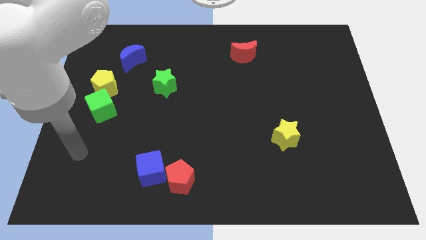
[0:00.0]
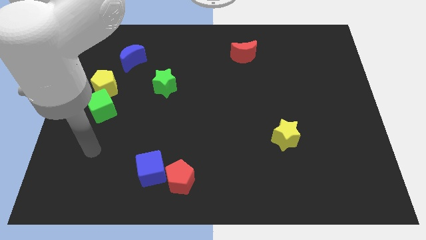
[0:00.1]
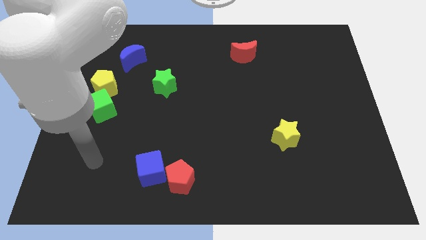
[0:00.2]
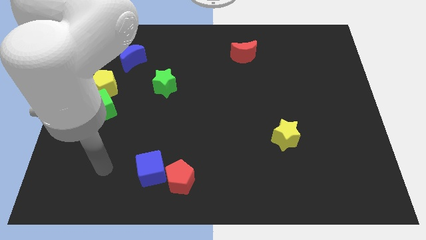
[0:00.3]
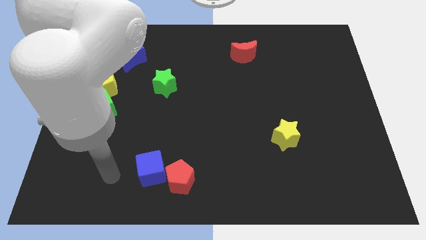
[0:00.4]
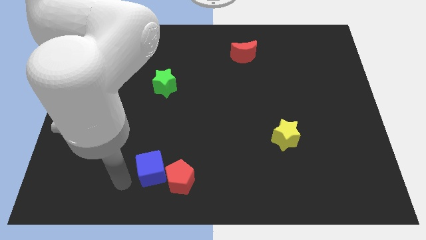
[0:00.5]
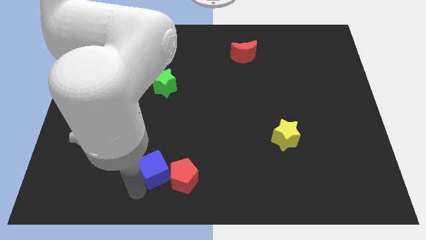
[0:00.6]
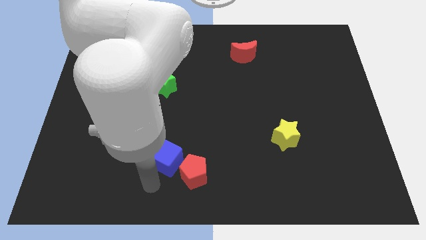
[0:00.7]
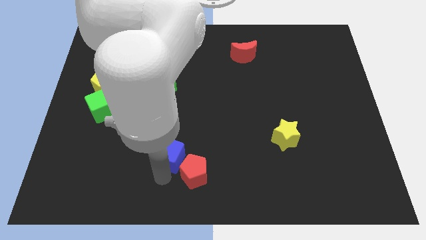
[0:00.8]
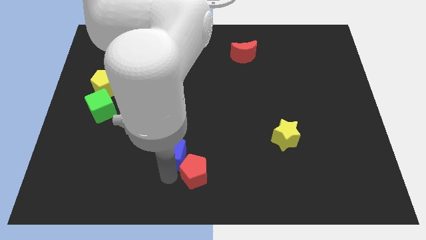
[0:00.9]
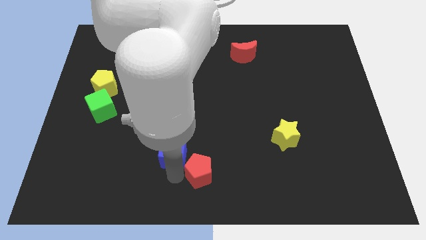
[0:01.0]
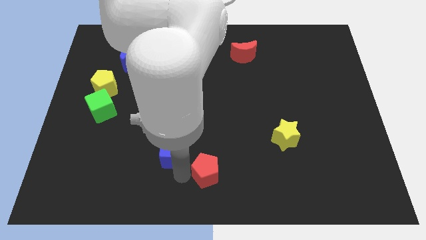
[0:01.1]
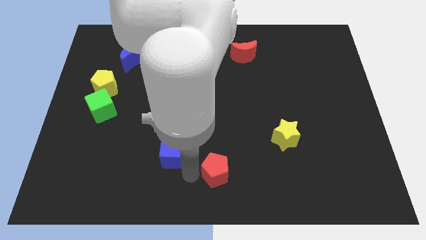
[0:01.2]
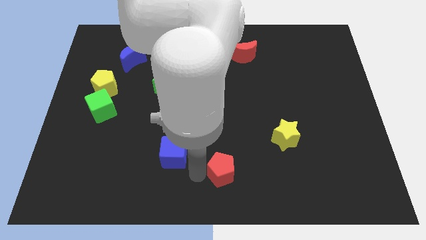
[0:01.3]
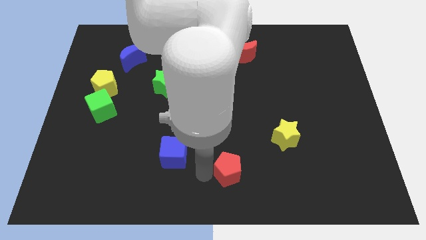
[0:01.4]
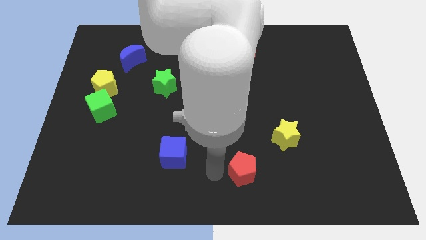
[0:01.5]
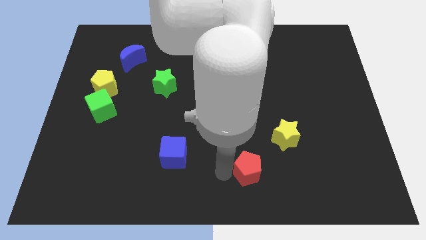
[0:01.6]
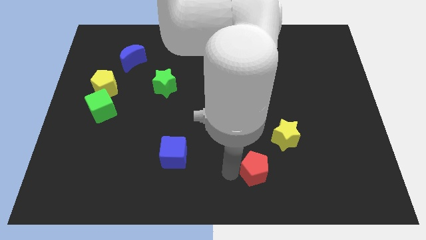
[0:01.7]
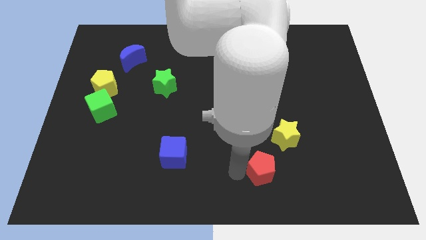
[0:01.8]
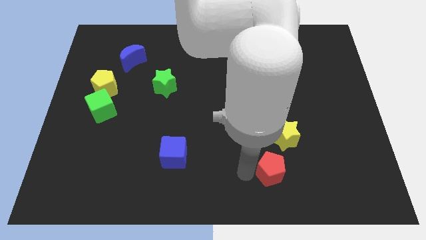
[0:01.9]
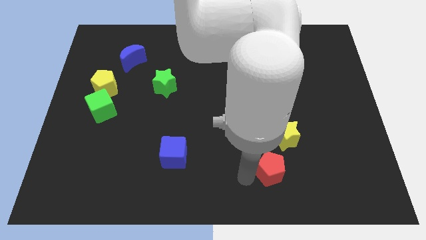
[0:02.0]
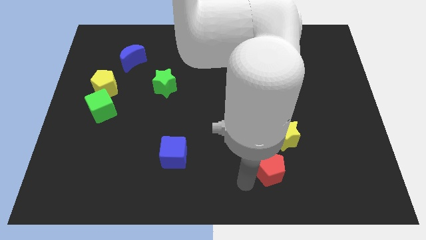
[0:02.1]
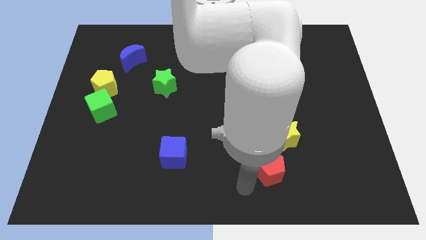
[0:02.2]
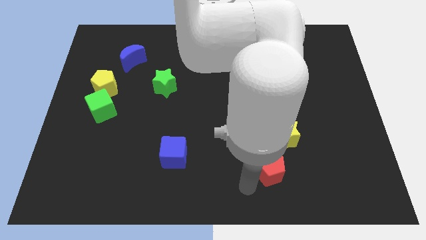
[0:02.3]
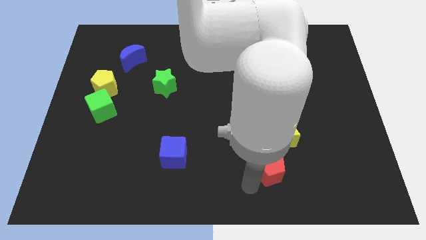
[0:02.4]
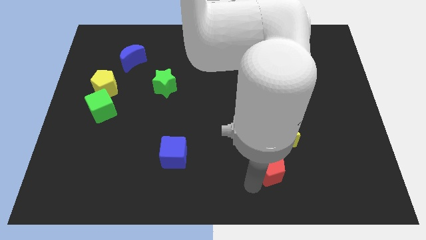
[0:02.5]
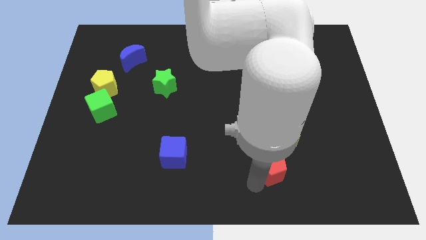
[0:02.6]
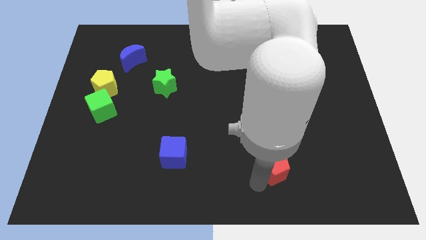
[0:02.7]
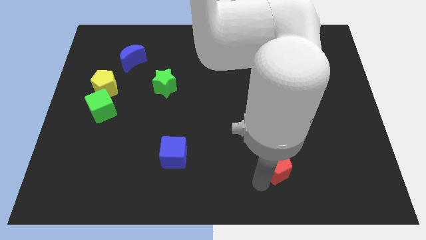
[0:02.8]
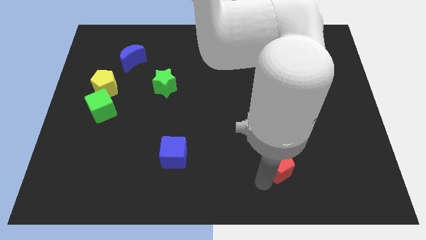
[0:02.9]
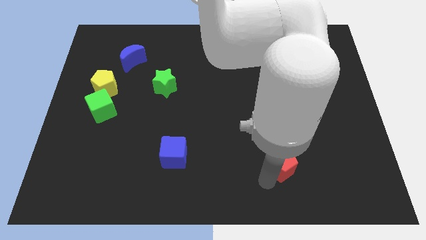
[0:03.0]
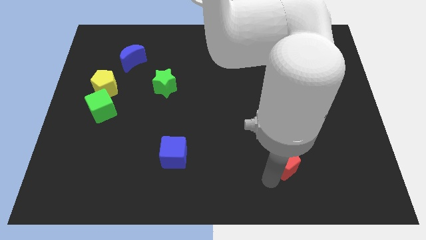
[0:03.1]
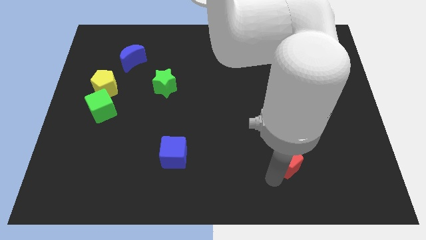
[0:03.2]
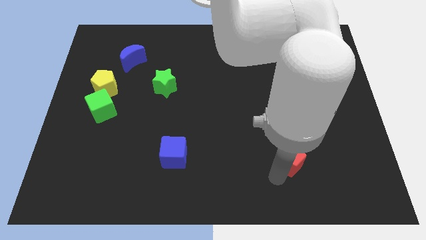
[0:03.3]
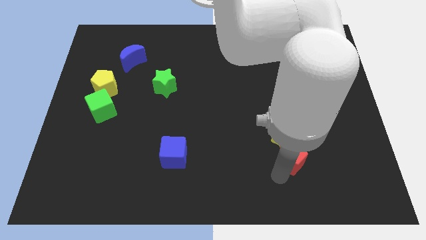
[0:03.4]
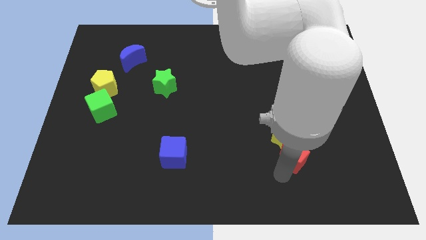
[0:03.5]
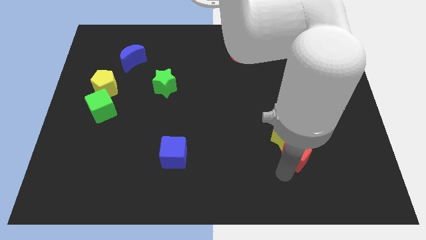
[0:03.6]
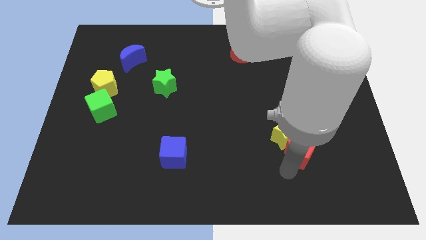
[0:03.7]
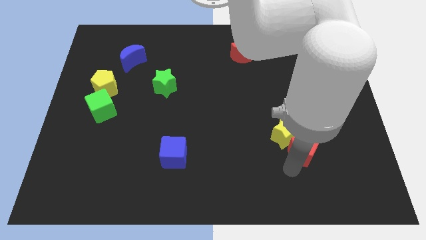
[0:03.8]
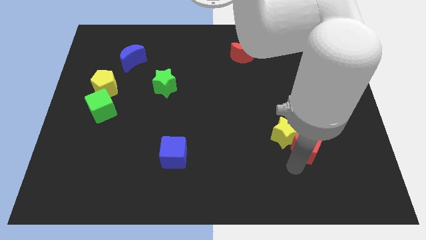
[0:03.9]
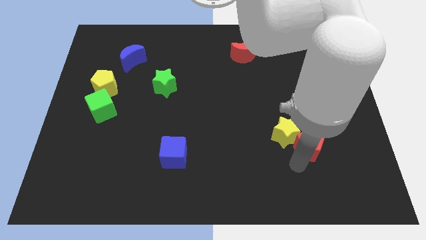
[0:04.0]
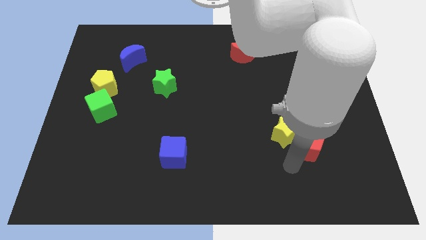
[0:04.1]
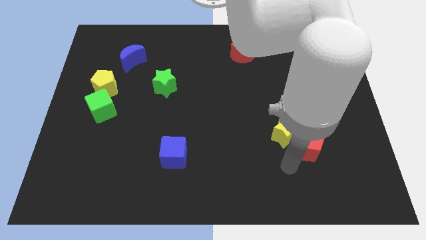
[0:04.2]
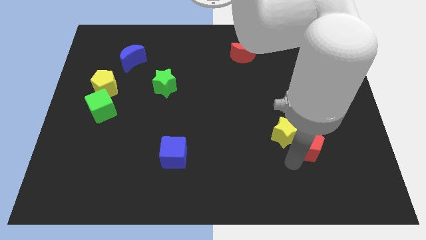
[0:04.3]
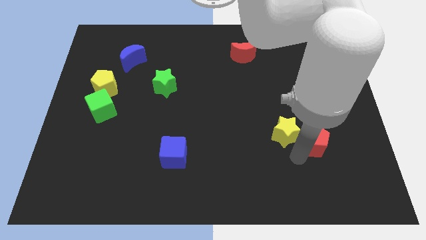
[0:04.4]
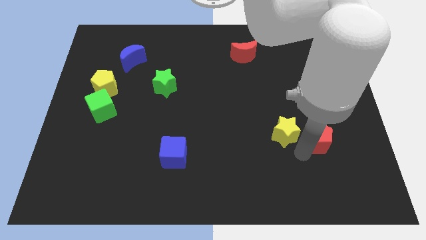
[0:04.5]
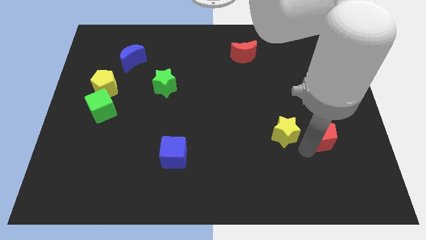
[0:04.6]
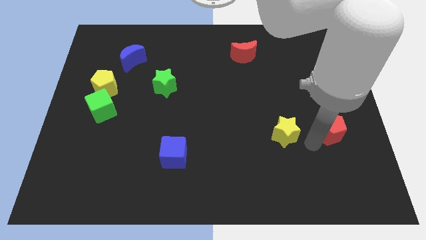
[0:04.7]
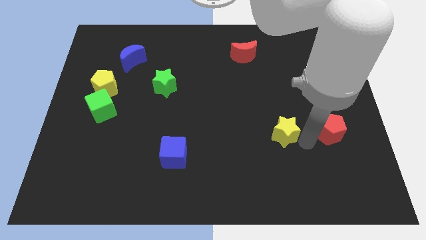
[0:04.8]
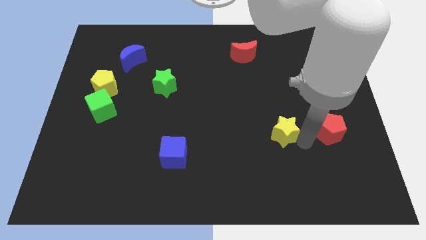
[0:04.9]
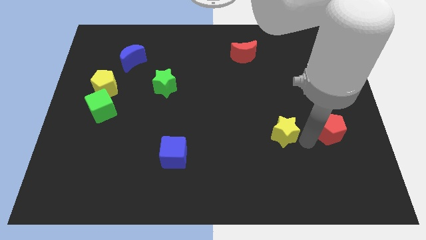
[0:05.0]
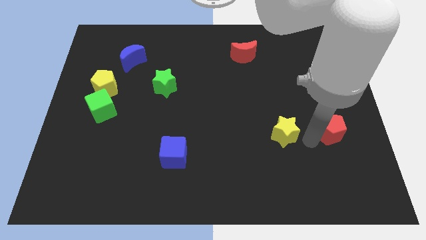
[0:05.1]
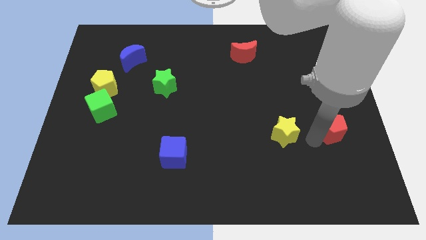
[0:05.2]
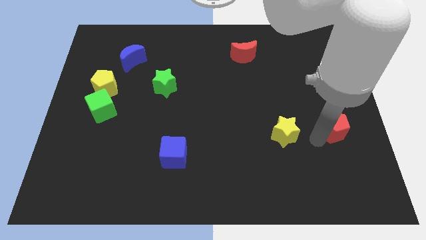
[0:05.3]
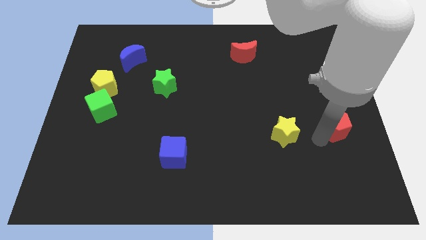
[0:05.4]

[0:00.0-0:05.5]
slide the red pentagon to the center right
